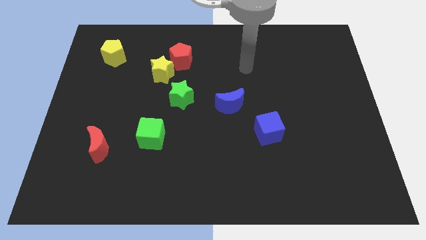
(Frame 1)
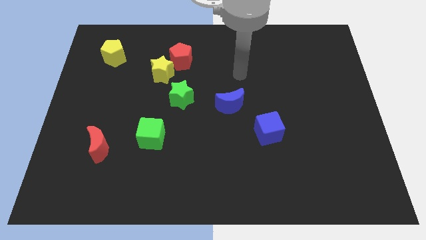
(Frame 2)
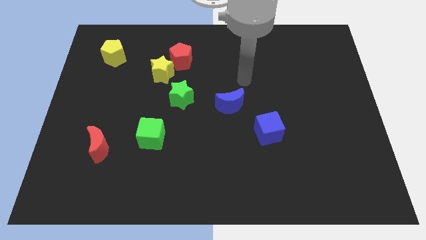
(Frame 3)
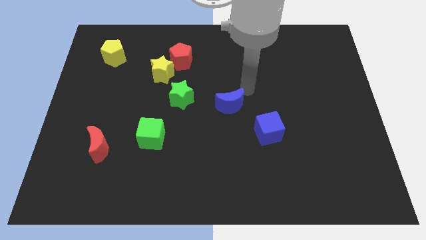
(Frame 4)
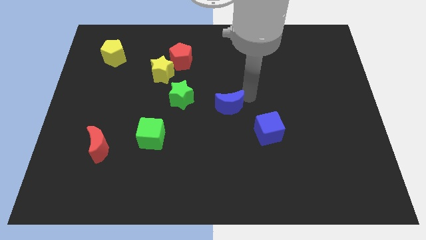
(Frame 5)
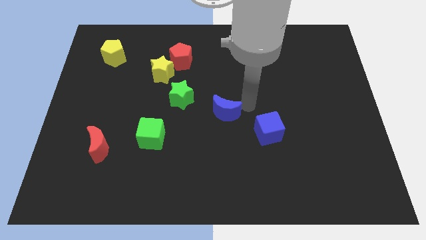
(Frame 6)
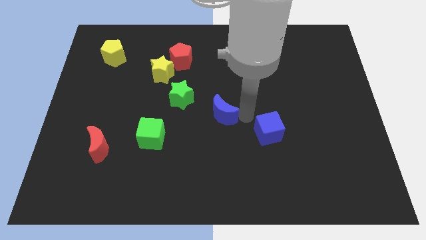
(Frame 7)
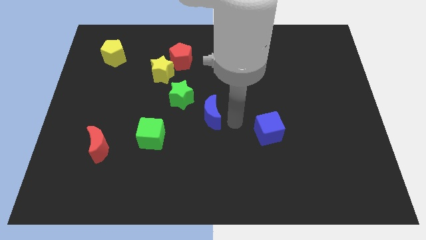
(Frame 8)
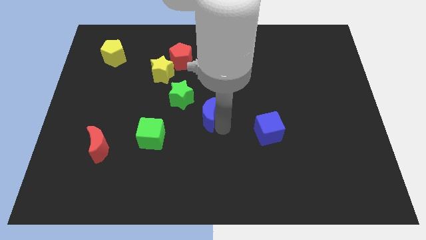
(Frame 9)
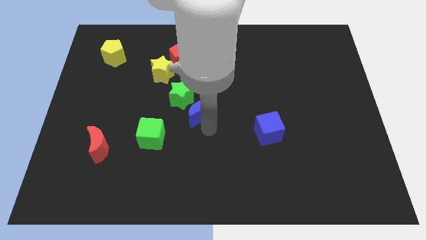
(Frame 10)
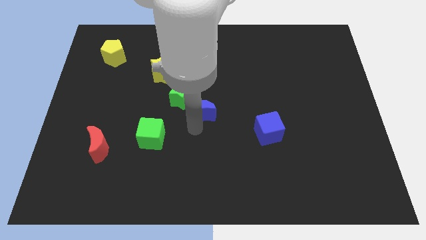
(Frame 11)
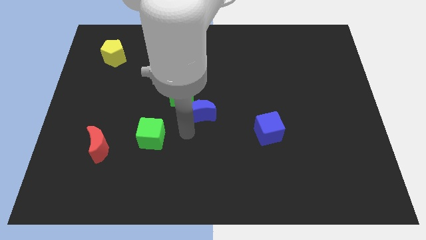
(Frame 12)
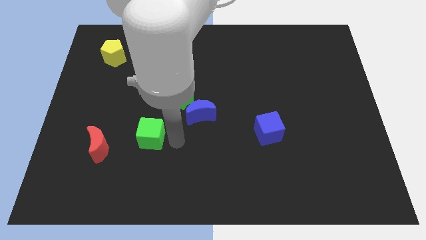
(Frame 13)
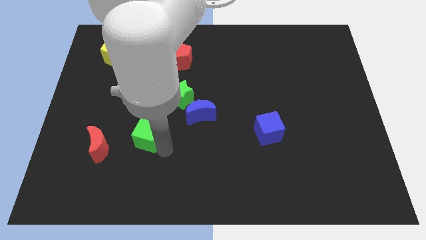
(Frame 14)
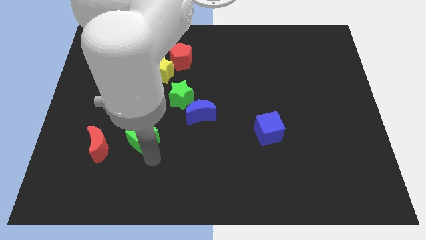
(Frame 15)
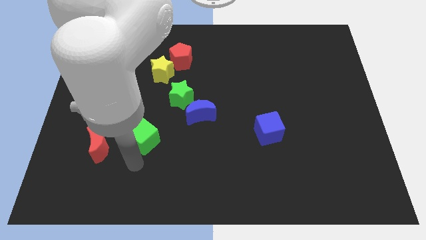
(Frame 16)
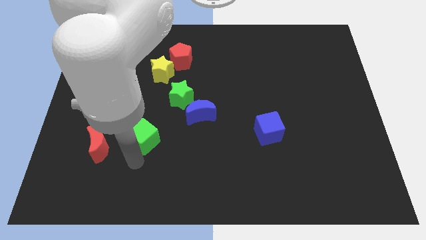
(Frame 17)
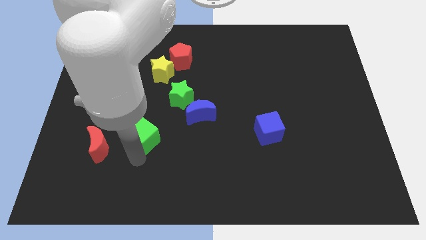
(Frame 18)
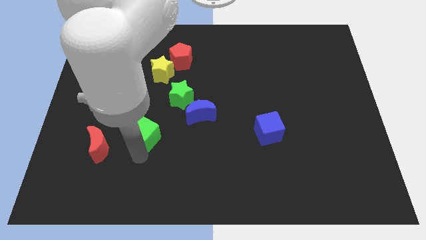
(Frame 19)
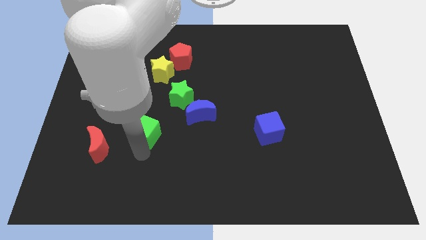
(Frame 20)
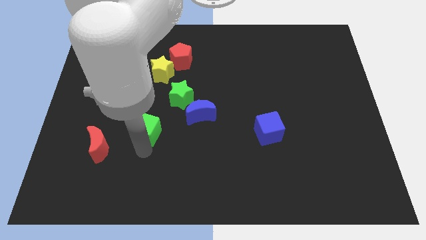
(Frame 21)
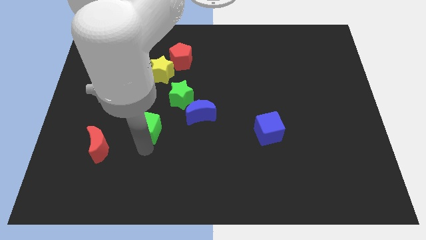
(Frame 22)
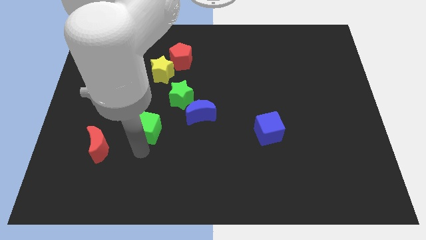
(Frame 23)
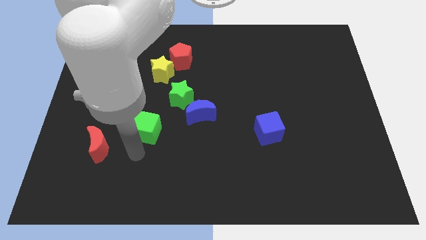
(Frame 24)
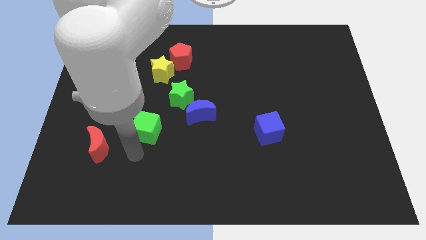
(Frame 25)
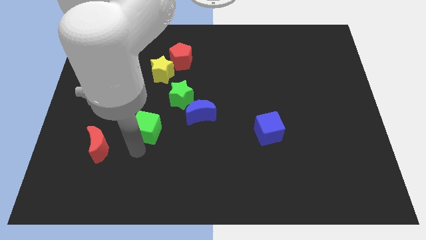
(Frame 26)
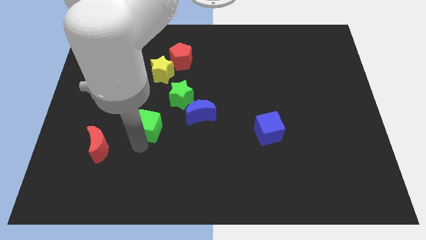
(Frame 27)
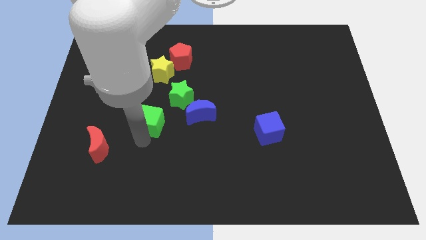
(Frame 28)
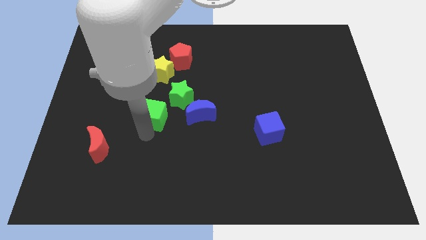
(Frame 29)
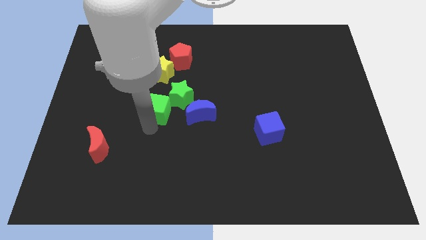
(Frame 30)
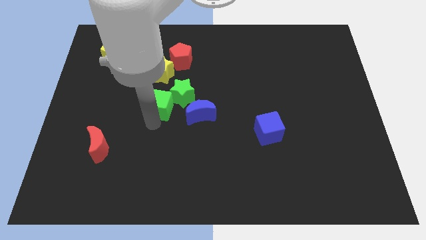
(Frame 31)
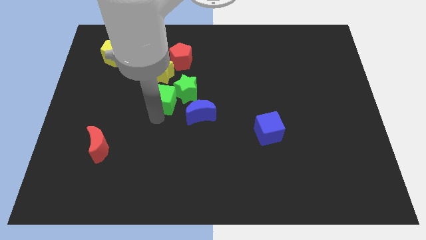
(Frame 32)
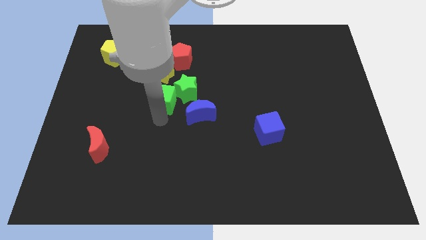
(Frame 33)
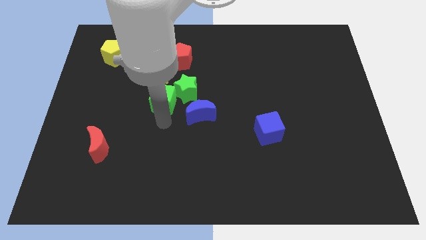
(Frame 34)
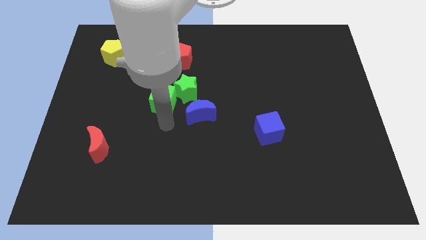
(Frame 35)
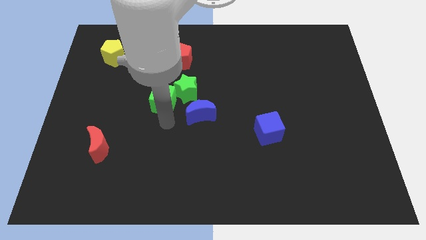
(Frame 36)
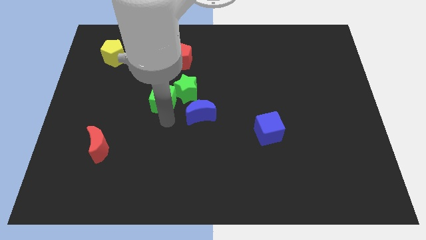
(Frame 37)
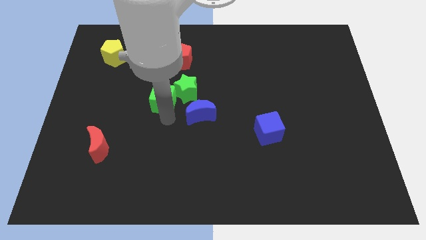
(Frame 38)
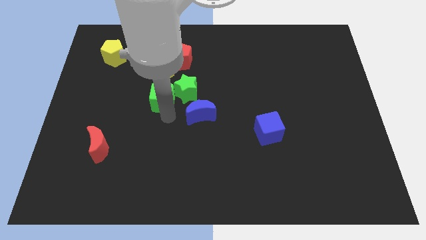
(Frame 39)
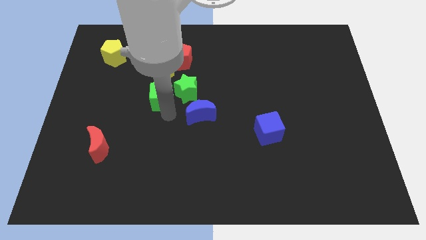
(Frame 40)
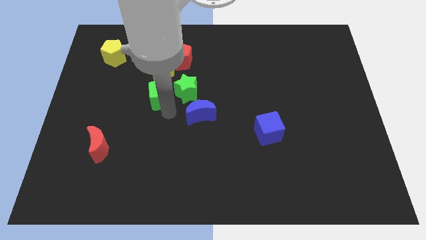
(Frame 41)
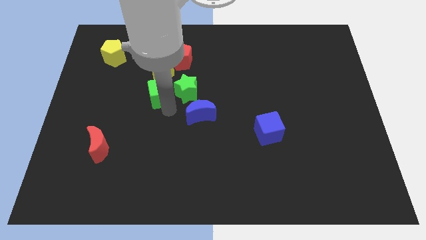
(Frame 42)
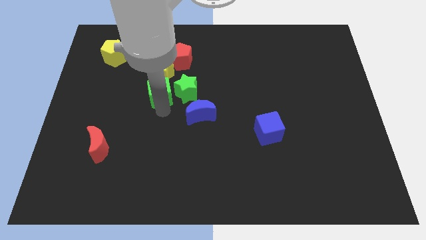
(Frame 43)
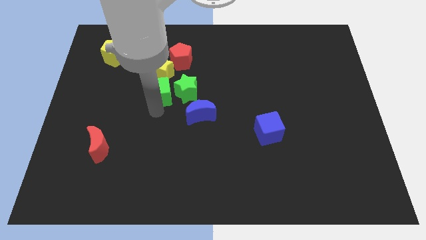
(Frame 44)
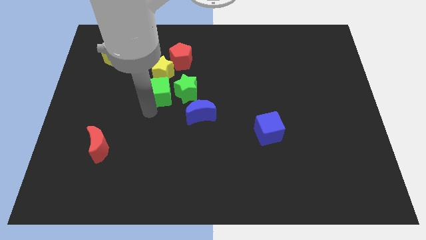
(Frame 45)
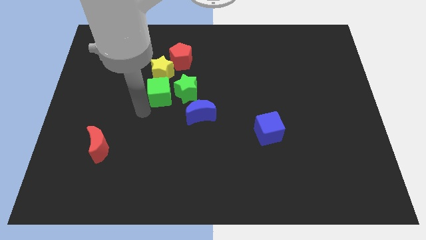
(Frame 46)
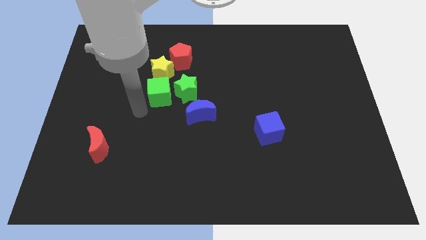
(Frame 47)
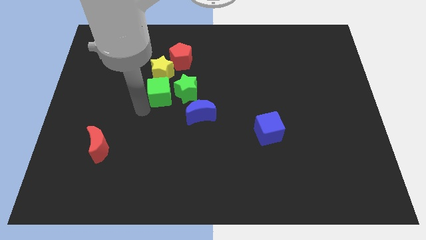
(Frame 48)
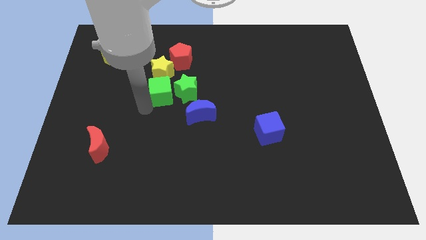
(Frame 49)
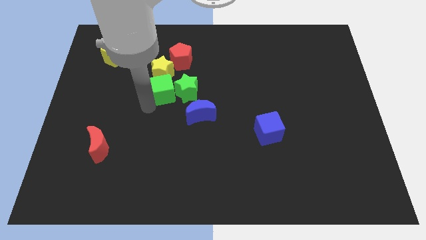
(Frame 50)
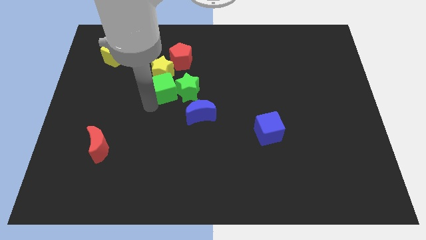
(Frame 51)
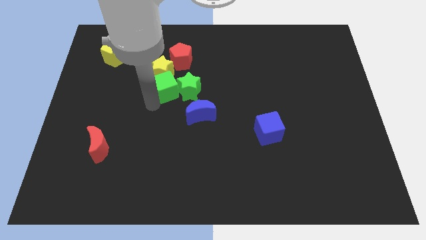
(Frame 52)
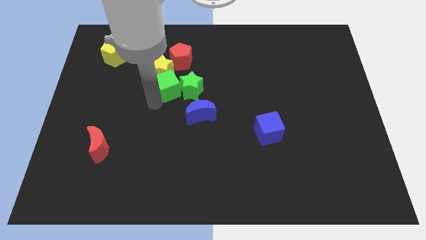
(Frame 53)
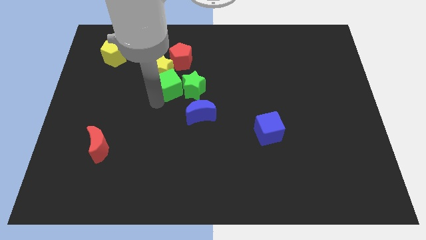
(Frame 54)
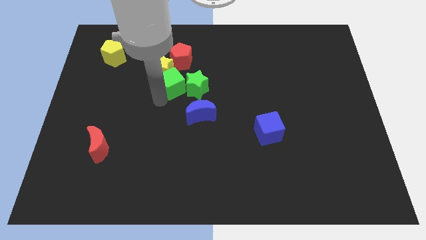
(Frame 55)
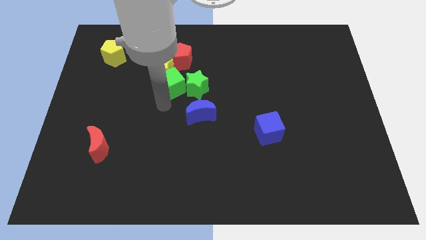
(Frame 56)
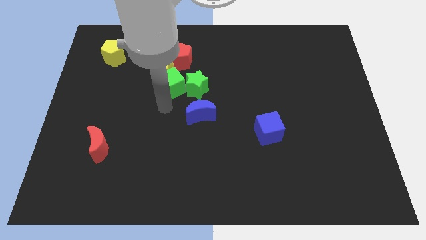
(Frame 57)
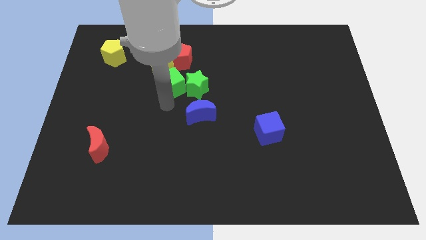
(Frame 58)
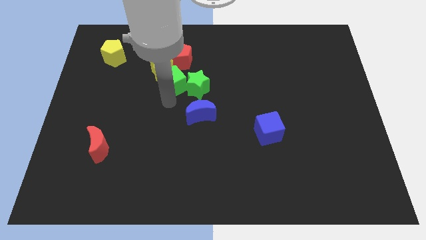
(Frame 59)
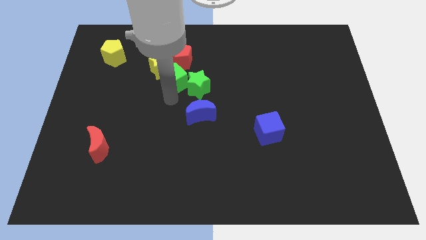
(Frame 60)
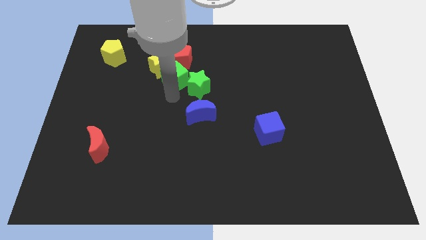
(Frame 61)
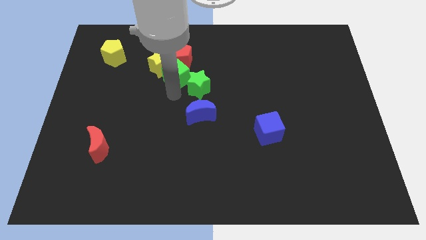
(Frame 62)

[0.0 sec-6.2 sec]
put the green cube towards the red pentagon

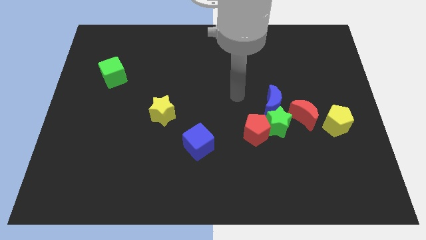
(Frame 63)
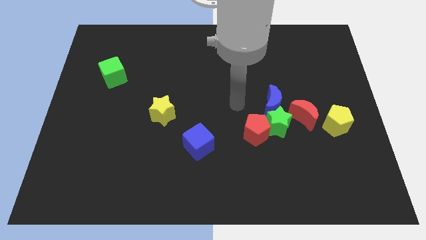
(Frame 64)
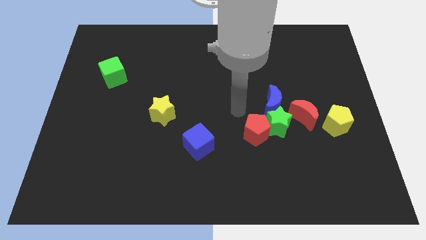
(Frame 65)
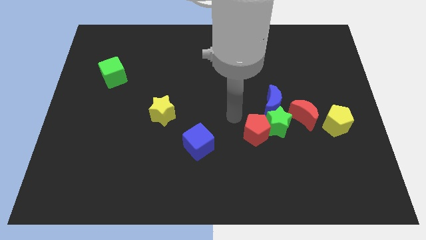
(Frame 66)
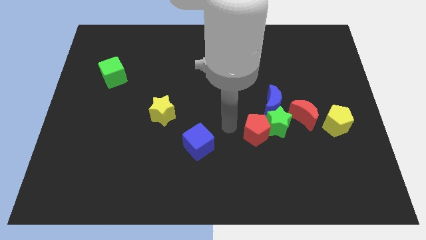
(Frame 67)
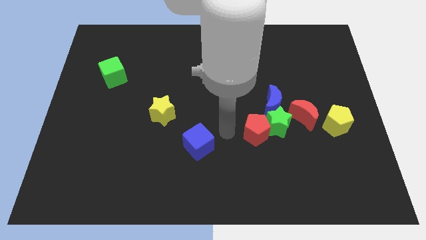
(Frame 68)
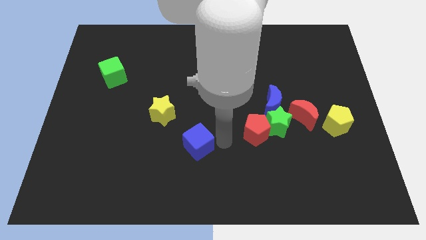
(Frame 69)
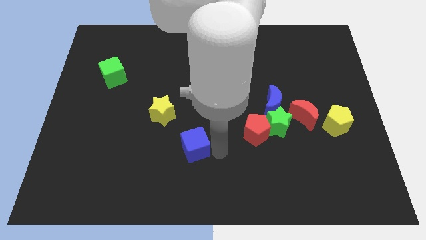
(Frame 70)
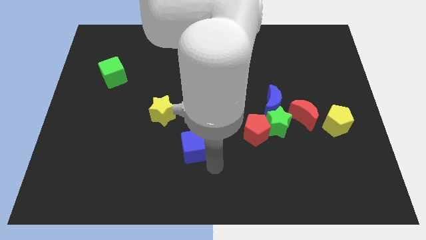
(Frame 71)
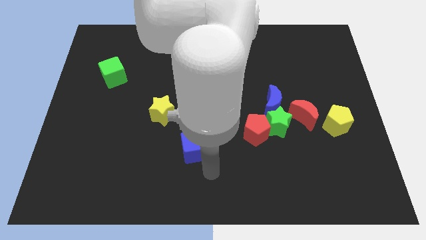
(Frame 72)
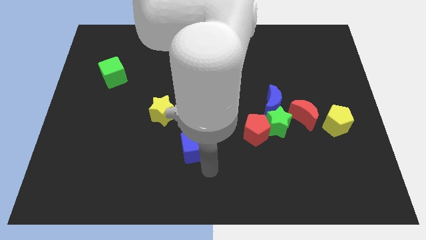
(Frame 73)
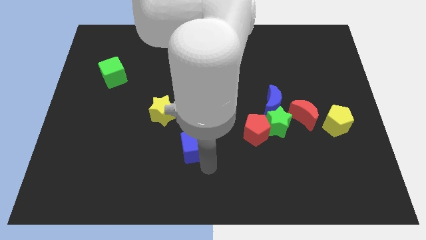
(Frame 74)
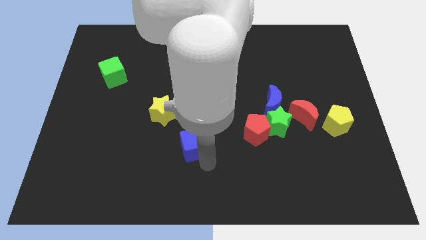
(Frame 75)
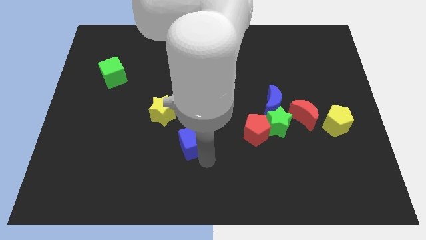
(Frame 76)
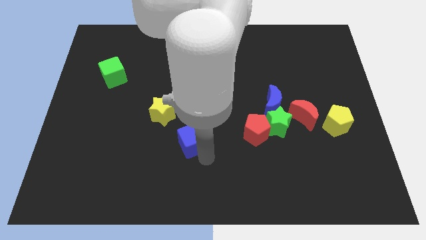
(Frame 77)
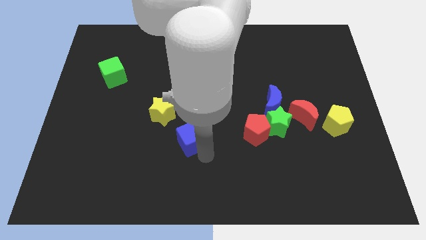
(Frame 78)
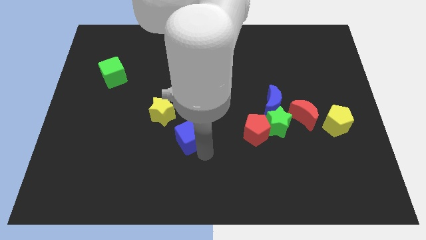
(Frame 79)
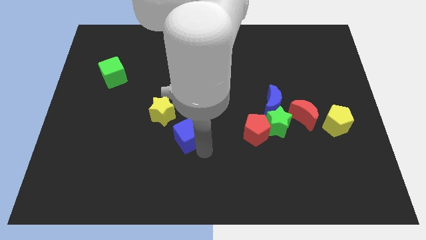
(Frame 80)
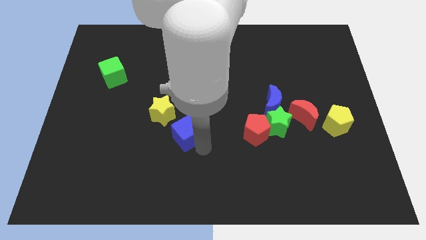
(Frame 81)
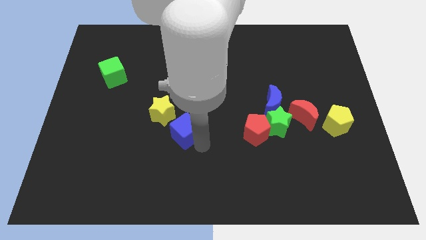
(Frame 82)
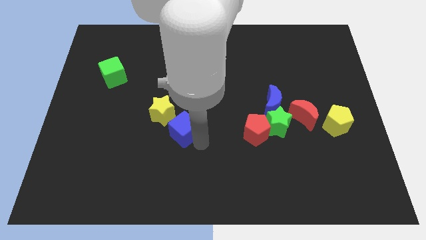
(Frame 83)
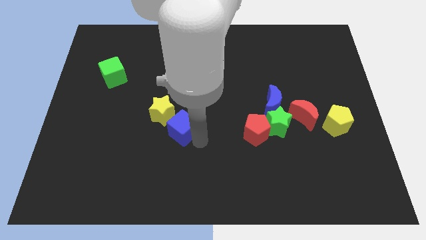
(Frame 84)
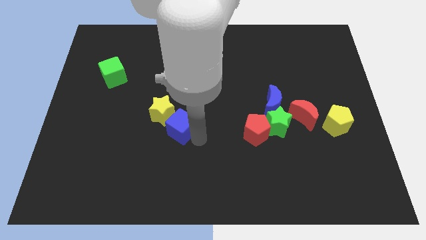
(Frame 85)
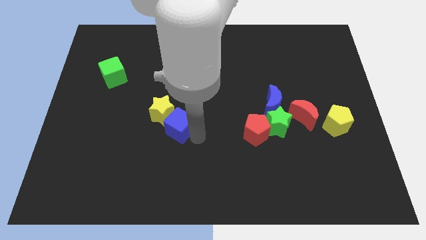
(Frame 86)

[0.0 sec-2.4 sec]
slide the blue cube next to the yellow star
